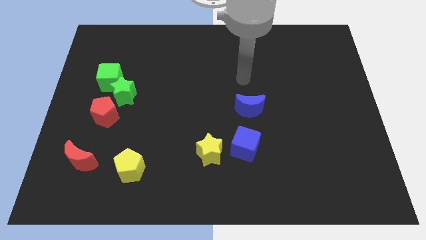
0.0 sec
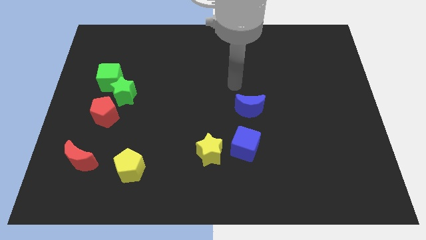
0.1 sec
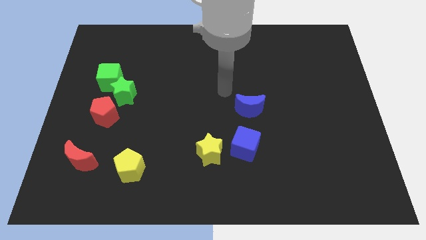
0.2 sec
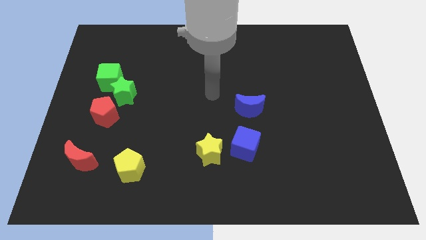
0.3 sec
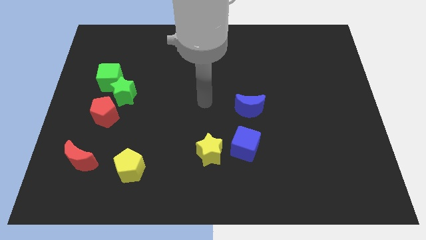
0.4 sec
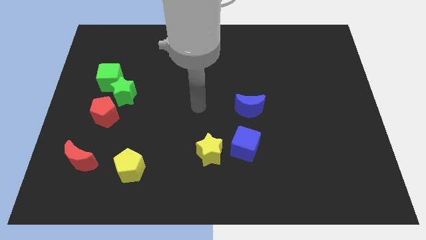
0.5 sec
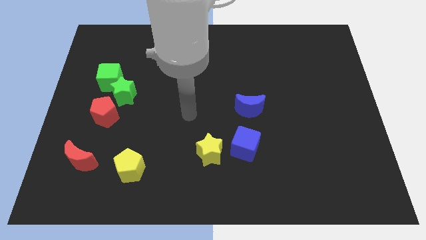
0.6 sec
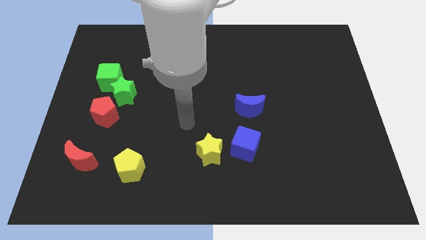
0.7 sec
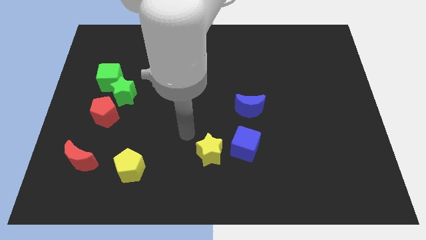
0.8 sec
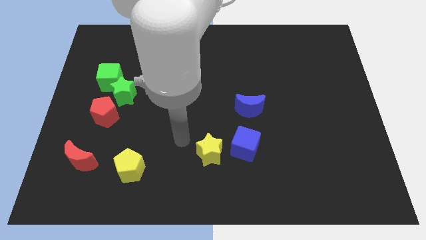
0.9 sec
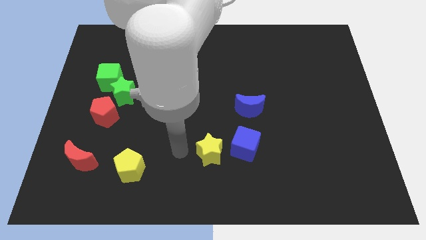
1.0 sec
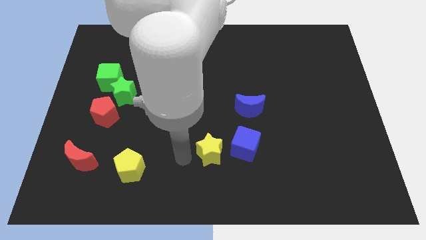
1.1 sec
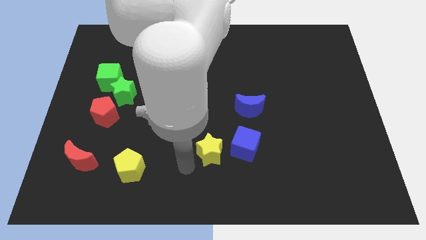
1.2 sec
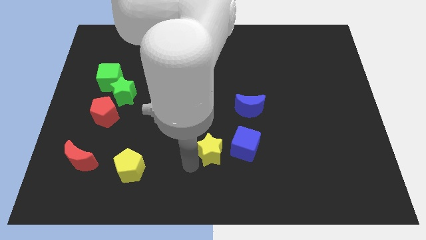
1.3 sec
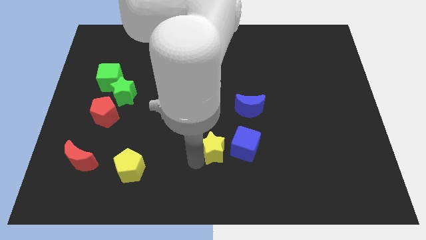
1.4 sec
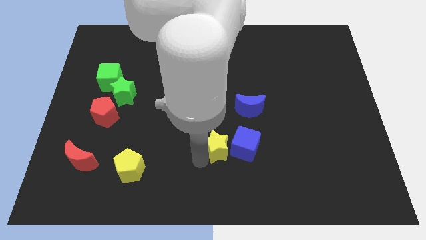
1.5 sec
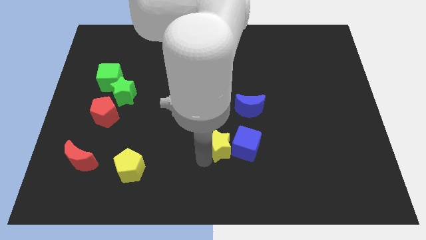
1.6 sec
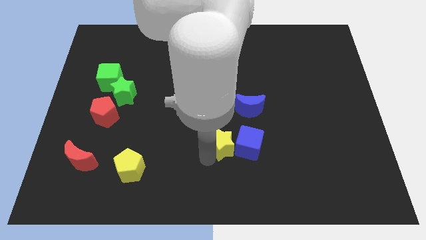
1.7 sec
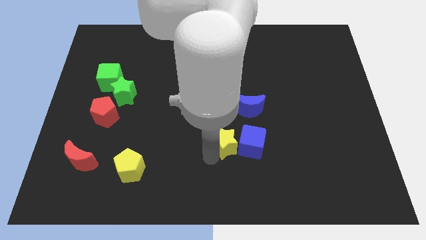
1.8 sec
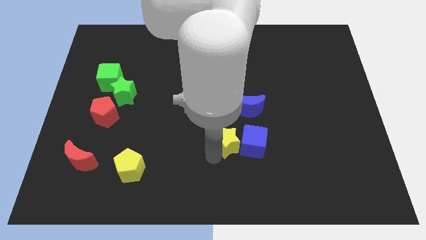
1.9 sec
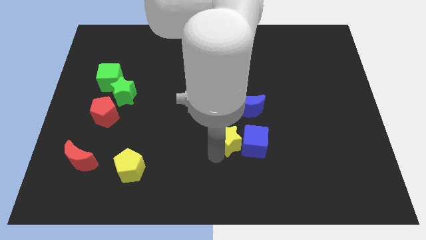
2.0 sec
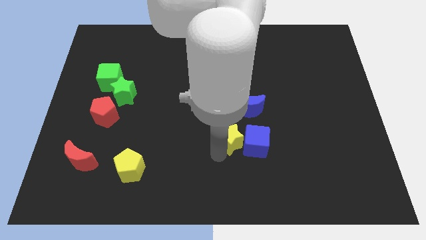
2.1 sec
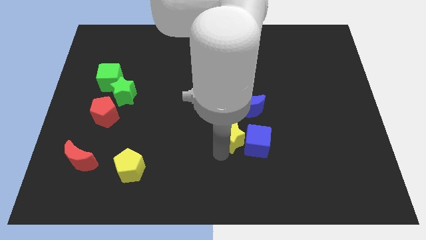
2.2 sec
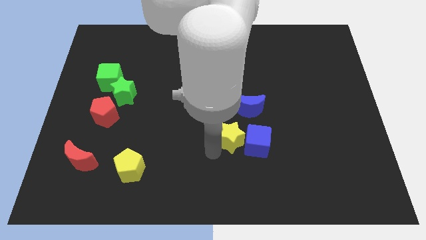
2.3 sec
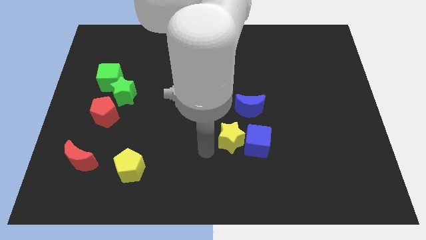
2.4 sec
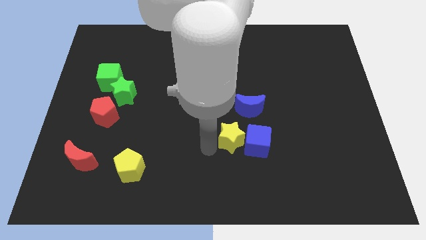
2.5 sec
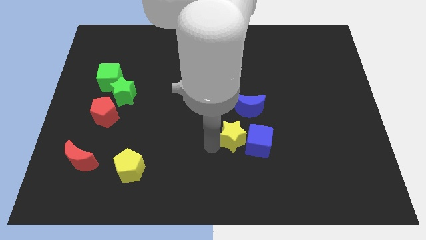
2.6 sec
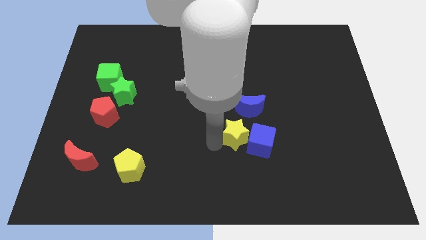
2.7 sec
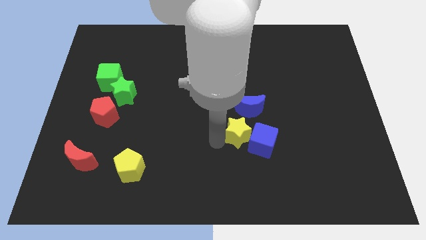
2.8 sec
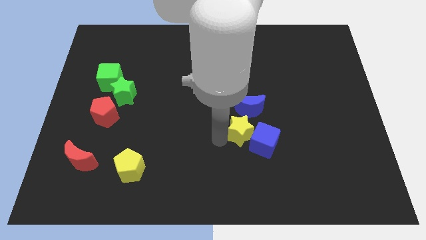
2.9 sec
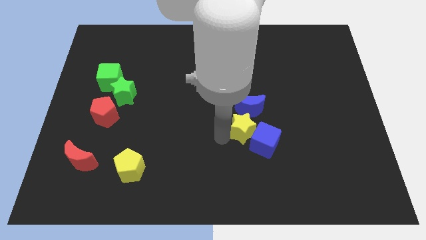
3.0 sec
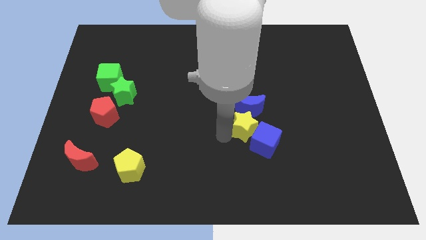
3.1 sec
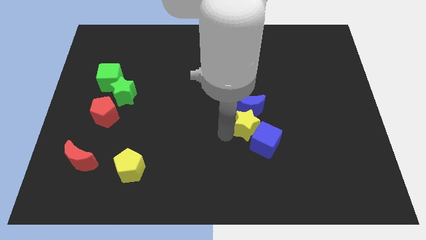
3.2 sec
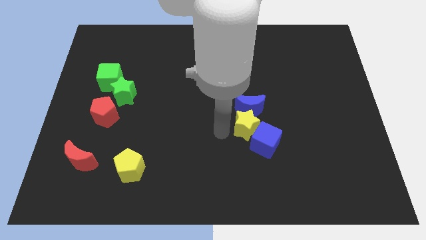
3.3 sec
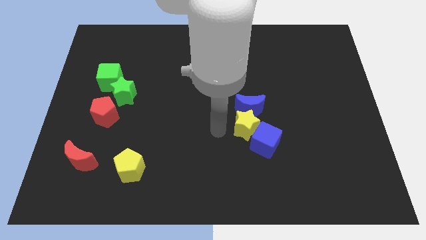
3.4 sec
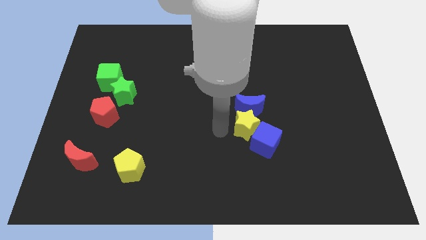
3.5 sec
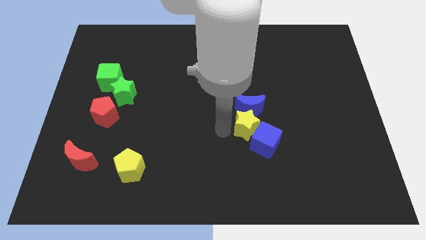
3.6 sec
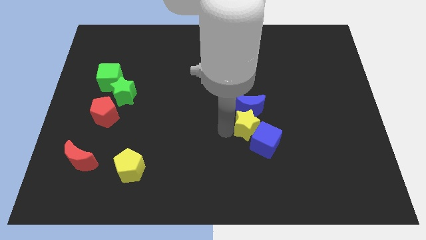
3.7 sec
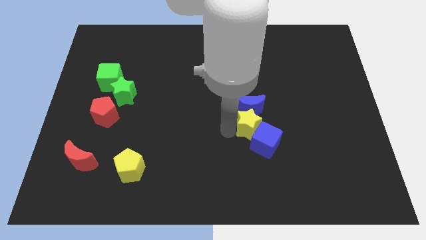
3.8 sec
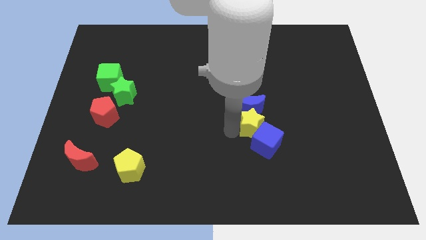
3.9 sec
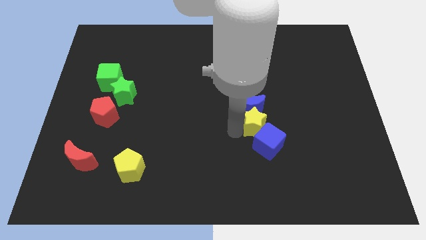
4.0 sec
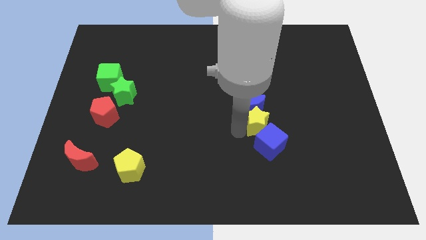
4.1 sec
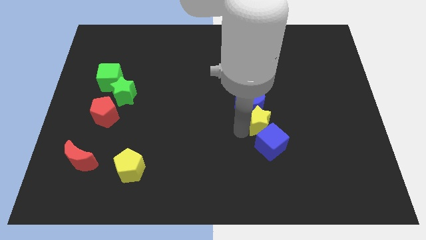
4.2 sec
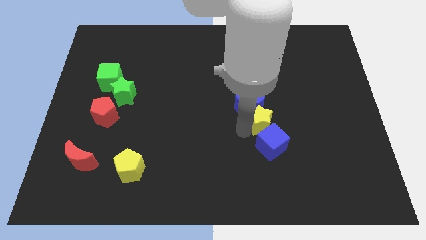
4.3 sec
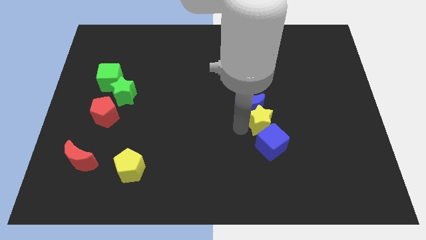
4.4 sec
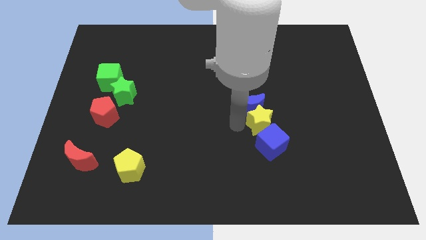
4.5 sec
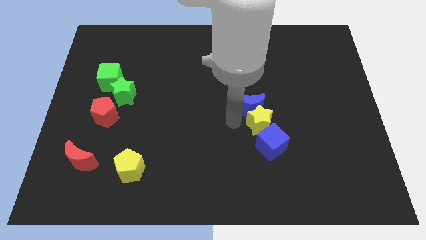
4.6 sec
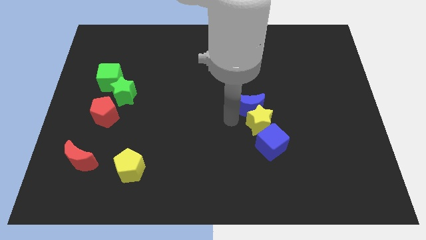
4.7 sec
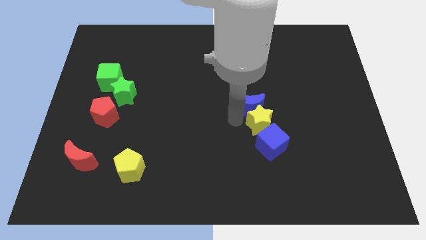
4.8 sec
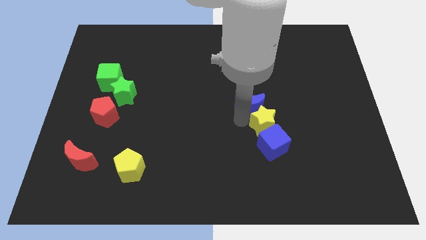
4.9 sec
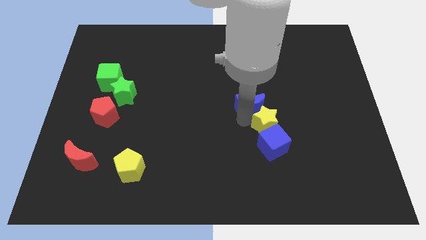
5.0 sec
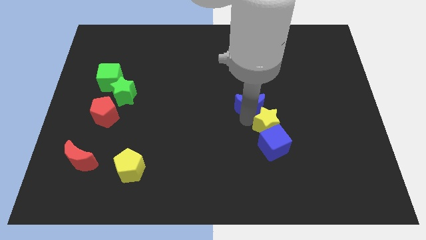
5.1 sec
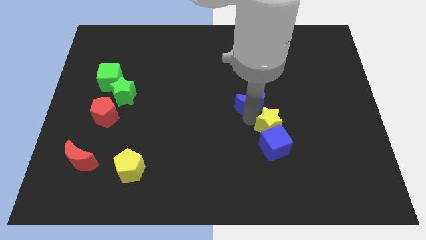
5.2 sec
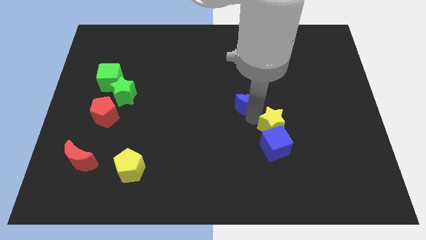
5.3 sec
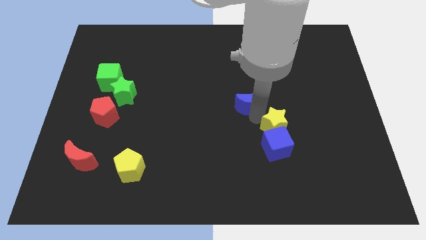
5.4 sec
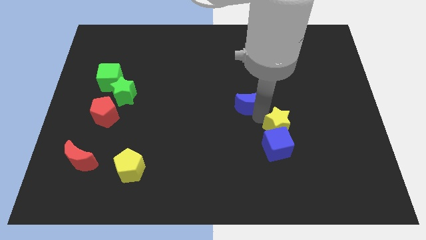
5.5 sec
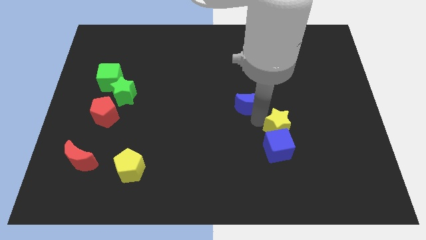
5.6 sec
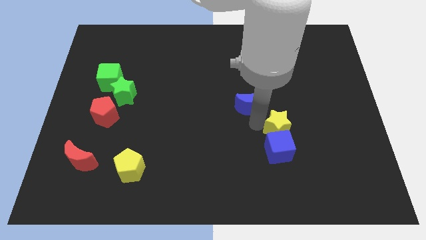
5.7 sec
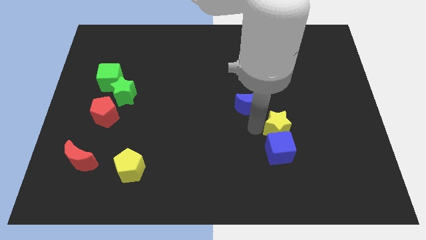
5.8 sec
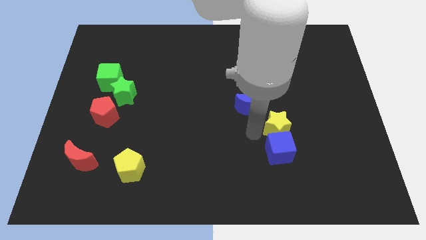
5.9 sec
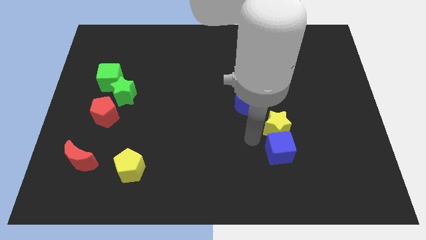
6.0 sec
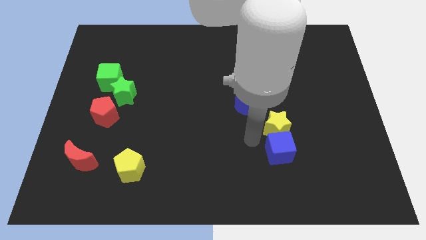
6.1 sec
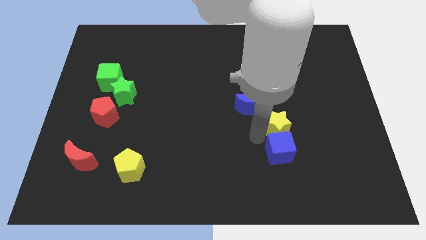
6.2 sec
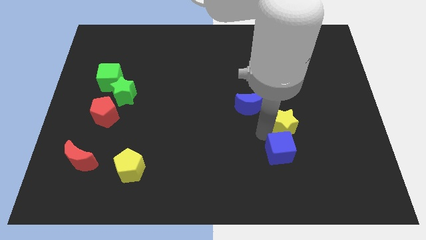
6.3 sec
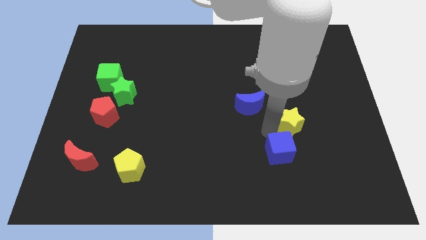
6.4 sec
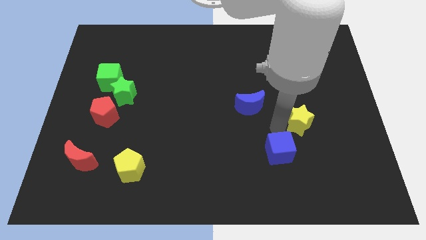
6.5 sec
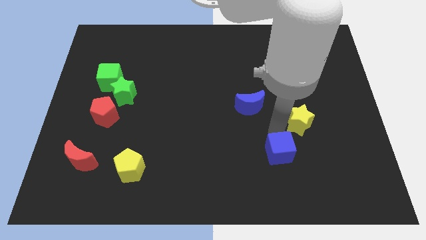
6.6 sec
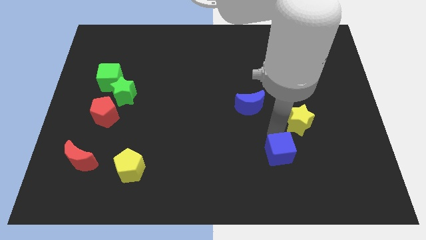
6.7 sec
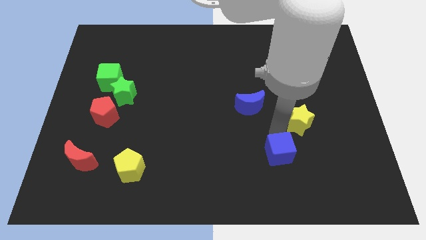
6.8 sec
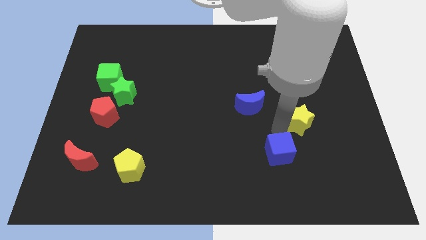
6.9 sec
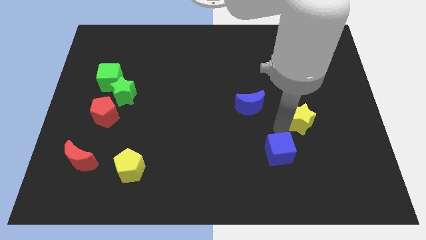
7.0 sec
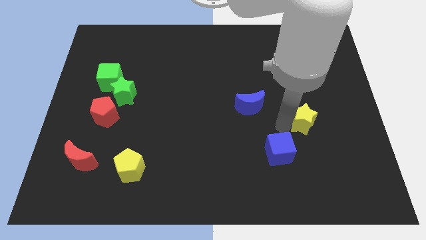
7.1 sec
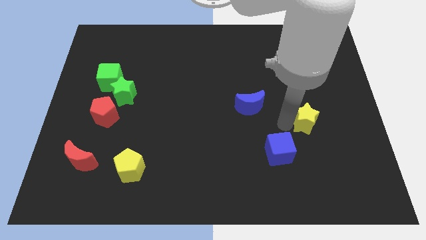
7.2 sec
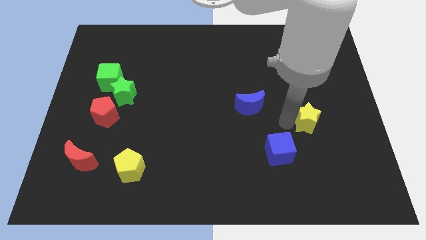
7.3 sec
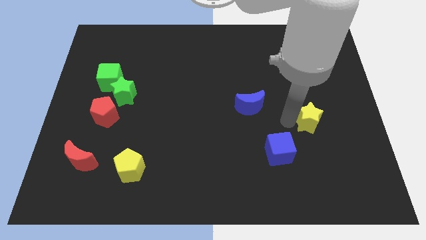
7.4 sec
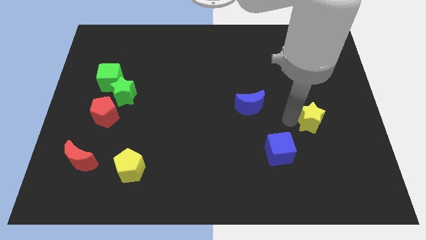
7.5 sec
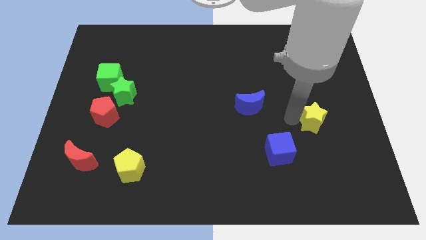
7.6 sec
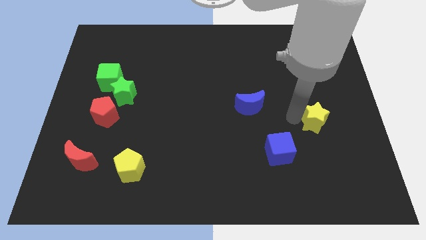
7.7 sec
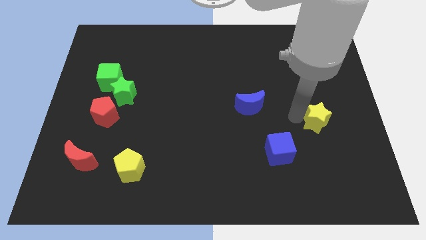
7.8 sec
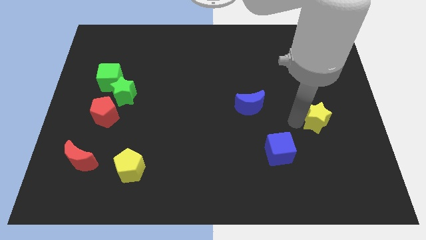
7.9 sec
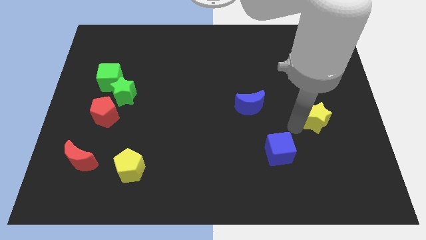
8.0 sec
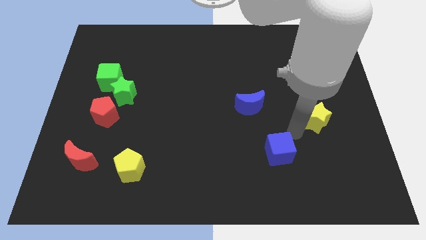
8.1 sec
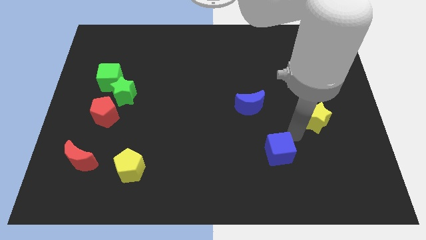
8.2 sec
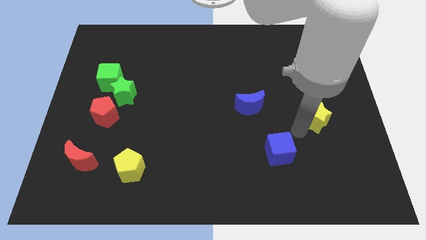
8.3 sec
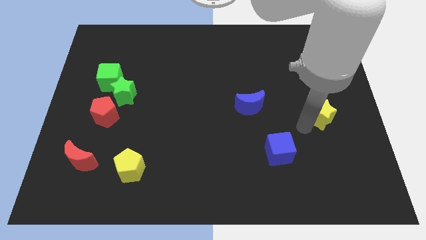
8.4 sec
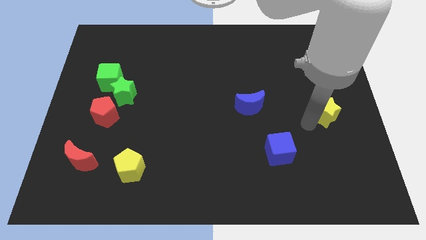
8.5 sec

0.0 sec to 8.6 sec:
move the yellow star to the right side of the board
